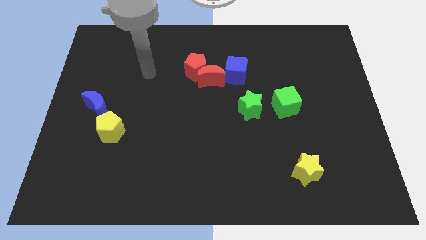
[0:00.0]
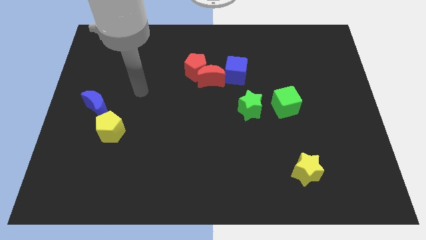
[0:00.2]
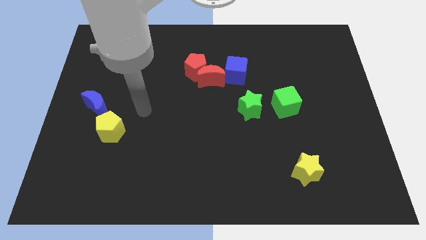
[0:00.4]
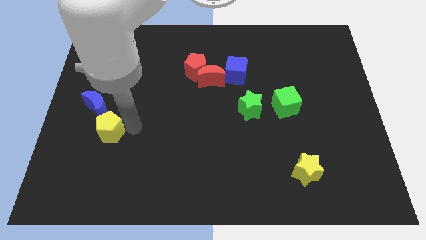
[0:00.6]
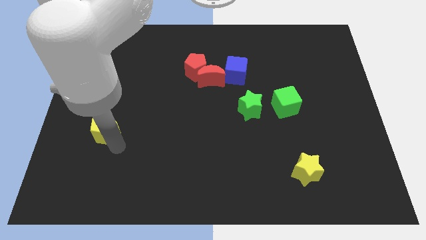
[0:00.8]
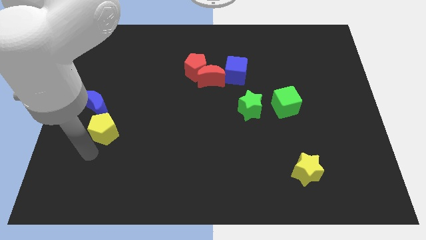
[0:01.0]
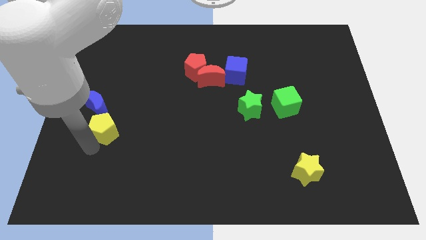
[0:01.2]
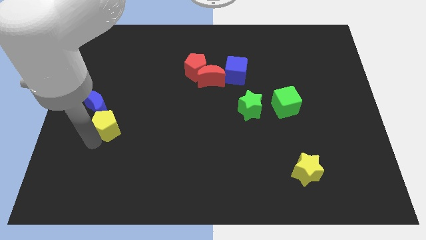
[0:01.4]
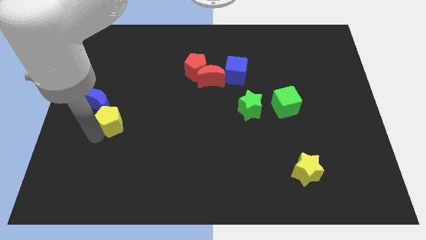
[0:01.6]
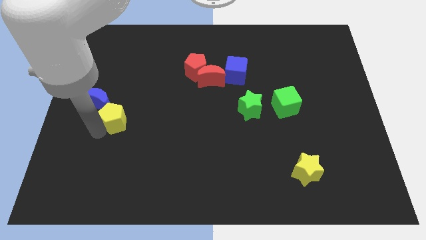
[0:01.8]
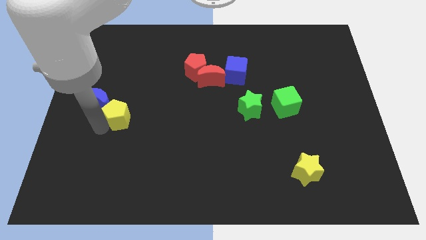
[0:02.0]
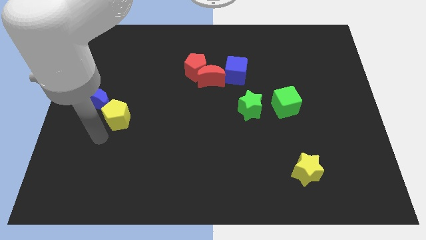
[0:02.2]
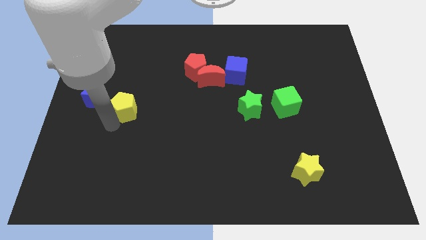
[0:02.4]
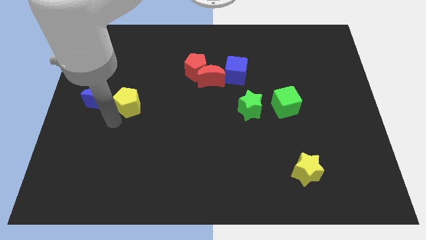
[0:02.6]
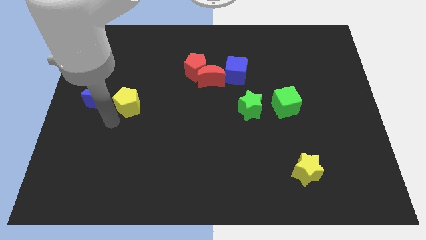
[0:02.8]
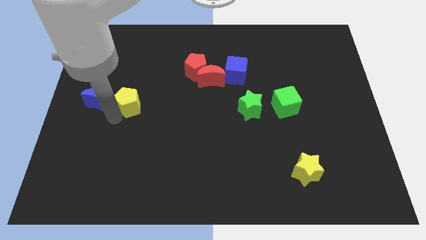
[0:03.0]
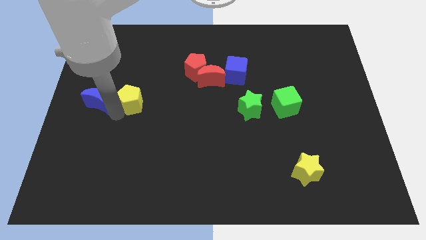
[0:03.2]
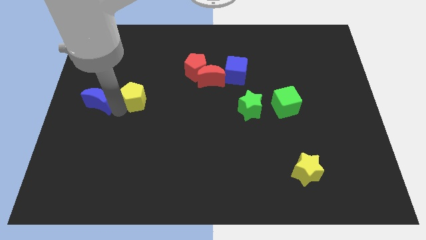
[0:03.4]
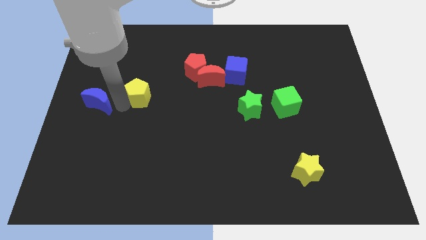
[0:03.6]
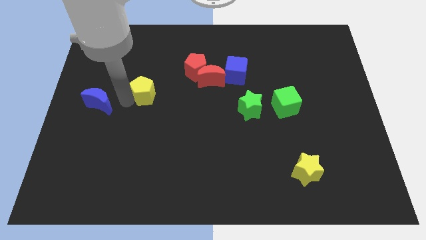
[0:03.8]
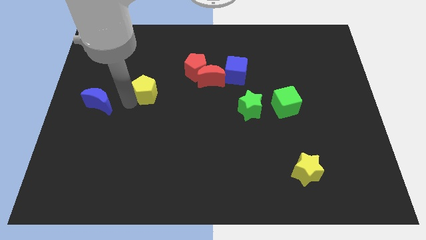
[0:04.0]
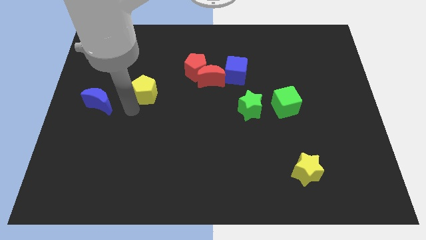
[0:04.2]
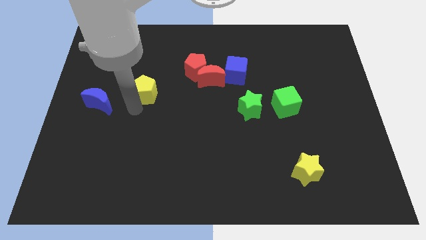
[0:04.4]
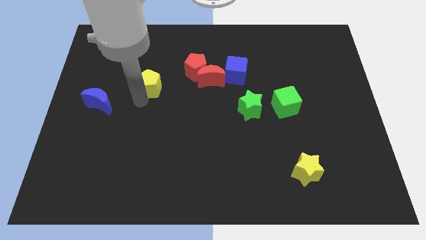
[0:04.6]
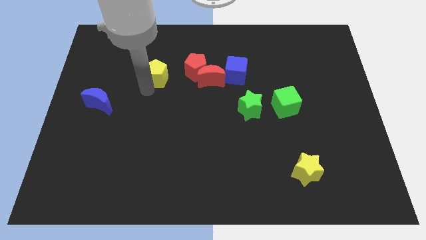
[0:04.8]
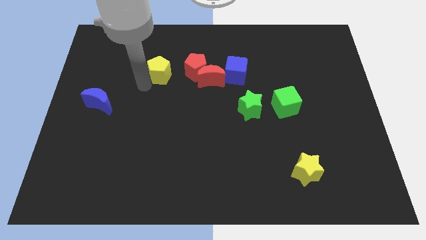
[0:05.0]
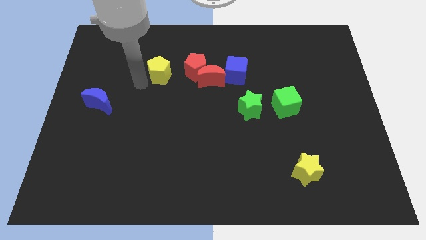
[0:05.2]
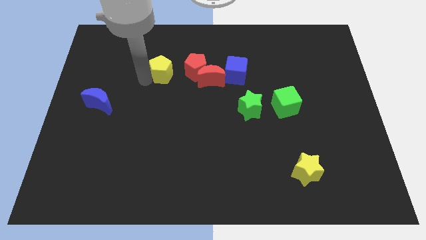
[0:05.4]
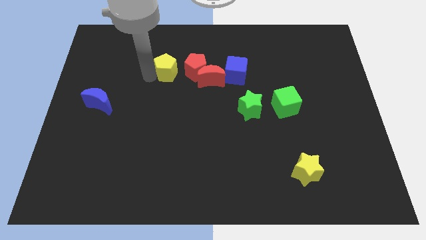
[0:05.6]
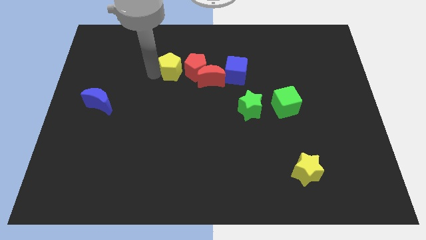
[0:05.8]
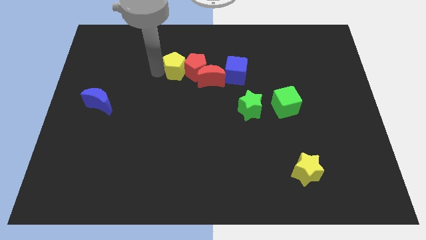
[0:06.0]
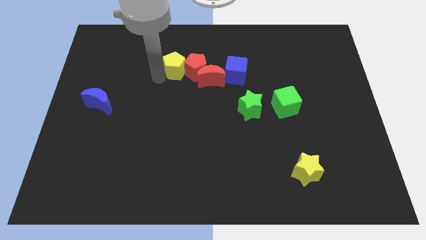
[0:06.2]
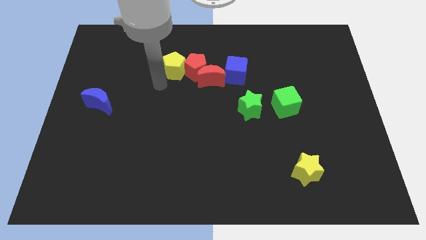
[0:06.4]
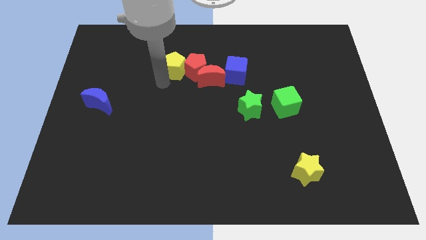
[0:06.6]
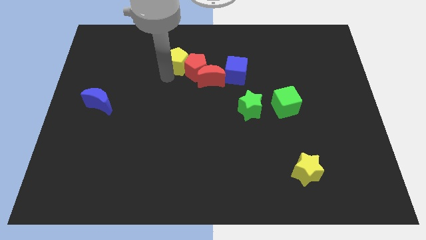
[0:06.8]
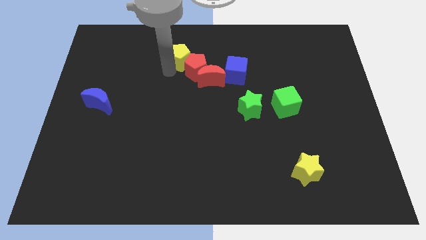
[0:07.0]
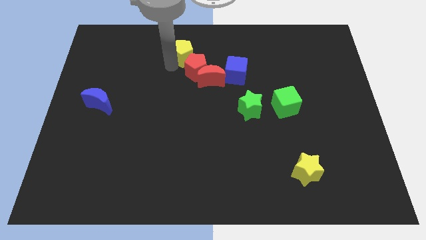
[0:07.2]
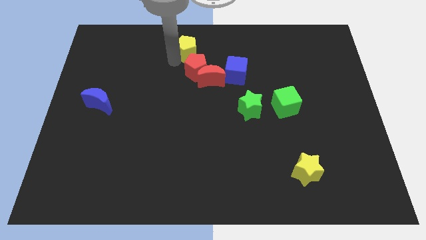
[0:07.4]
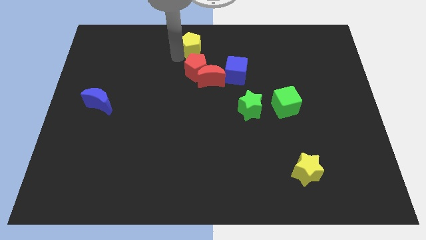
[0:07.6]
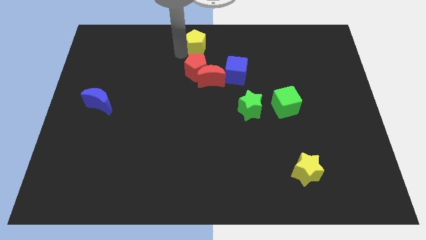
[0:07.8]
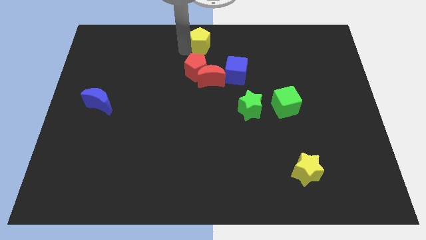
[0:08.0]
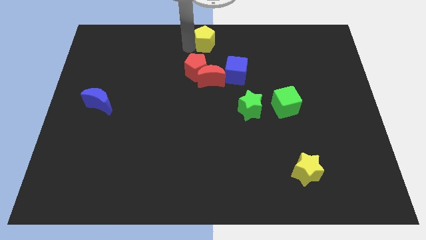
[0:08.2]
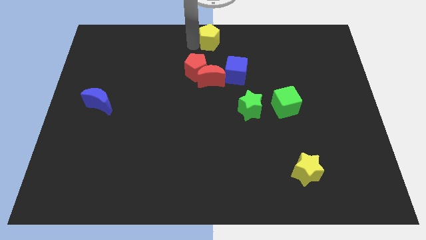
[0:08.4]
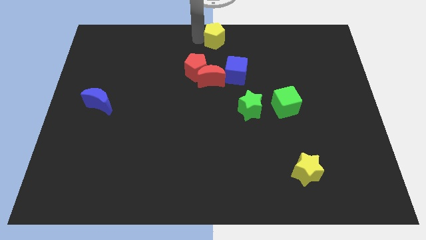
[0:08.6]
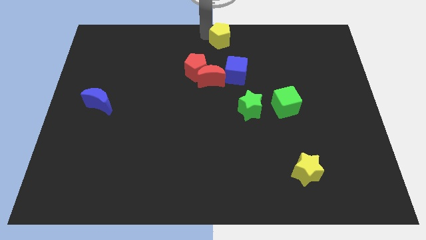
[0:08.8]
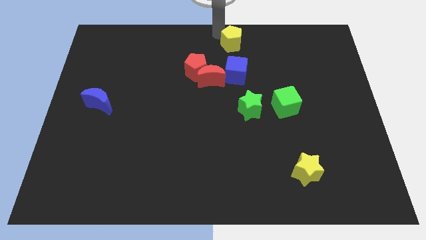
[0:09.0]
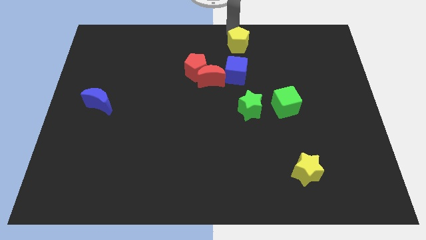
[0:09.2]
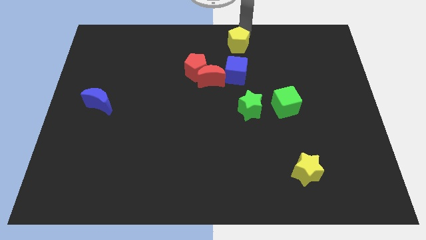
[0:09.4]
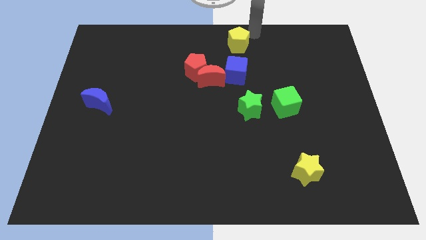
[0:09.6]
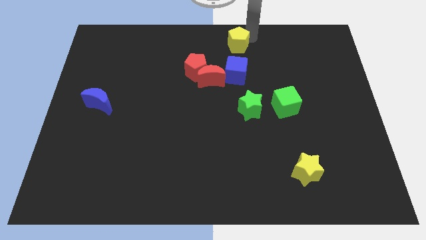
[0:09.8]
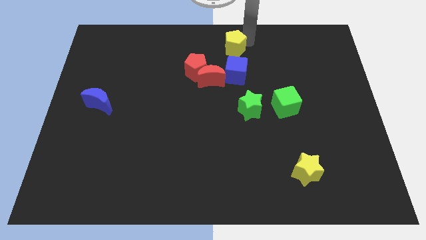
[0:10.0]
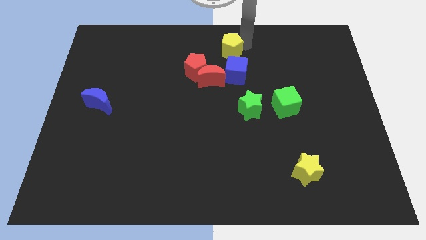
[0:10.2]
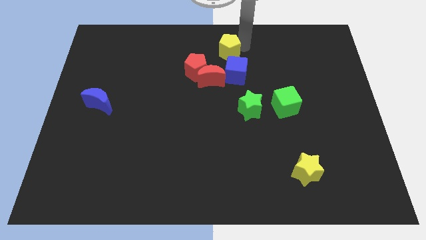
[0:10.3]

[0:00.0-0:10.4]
slide the yellow pentagon to the top left of the blue cube

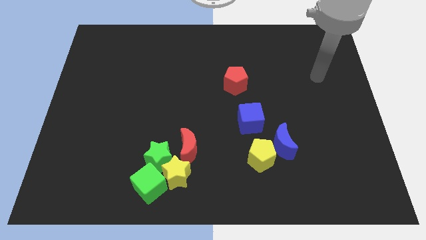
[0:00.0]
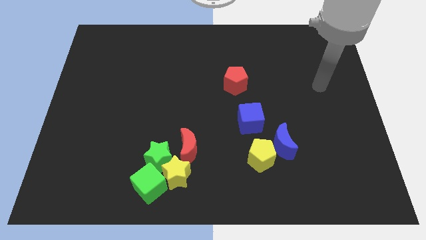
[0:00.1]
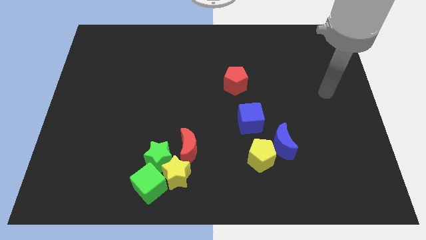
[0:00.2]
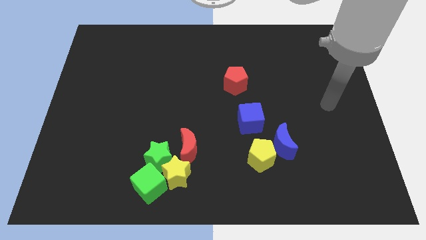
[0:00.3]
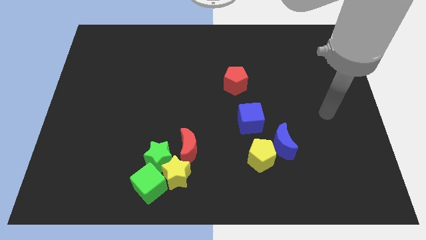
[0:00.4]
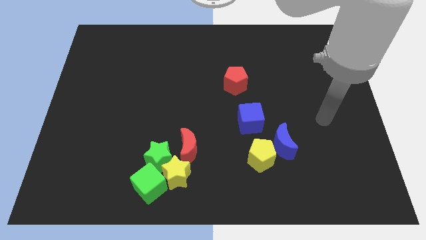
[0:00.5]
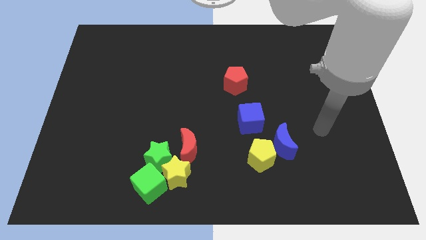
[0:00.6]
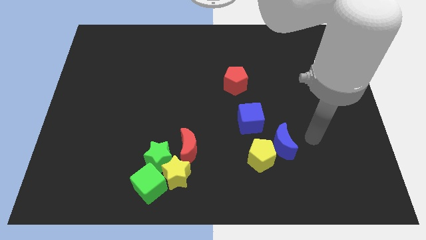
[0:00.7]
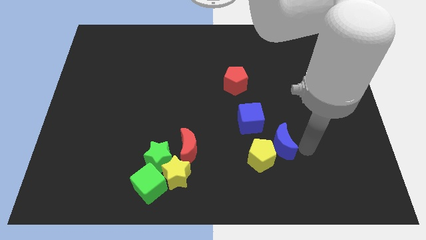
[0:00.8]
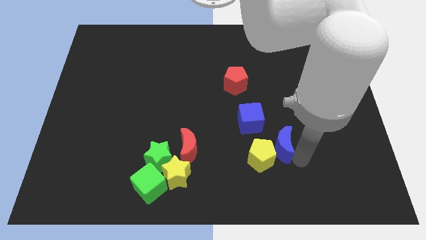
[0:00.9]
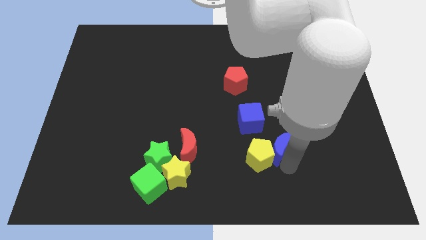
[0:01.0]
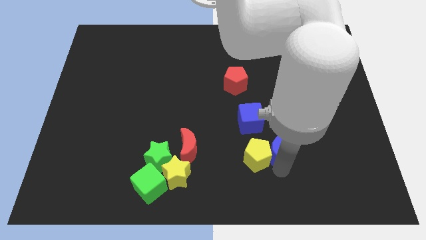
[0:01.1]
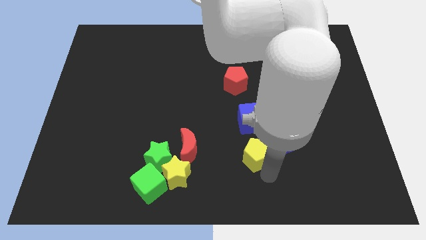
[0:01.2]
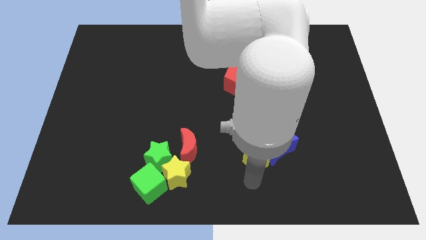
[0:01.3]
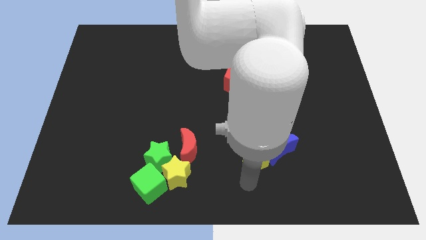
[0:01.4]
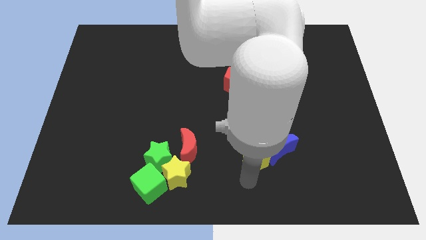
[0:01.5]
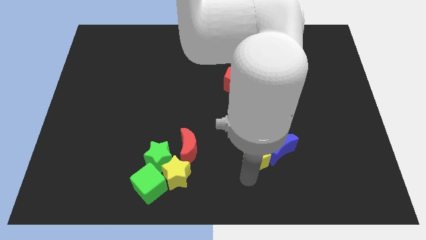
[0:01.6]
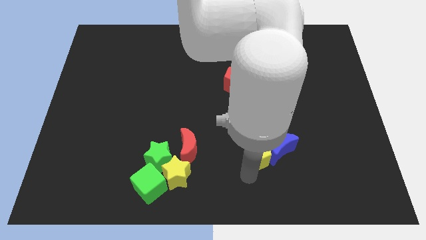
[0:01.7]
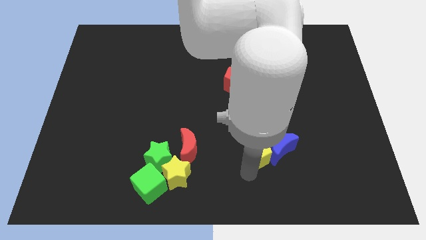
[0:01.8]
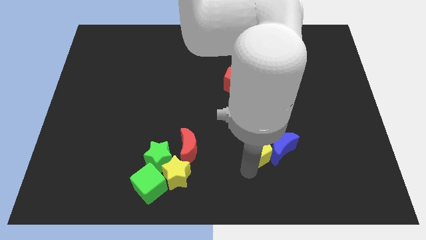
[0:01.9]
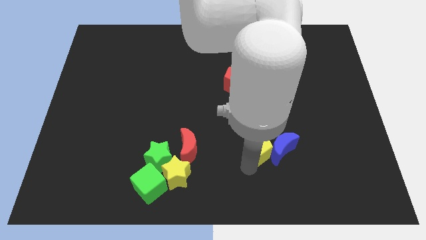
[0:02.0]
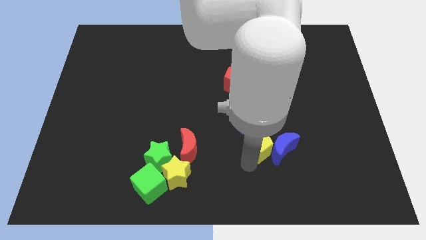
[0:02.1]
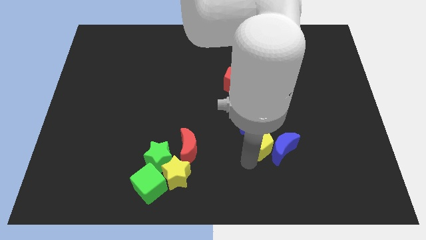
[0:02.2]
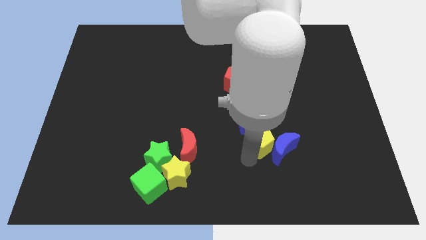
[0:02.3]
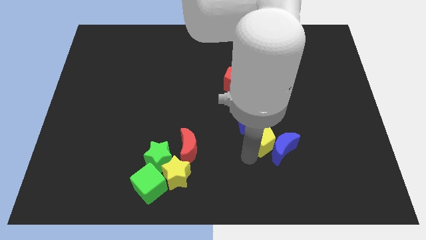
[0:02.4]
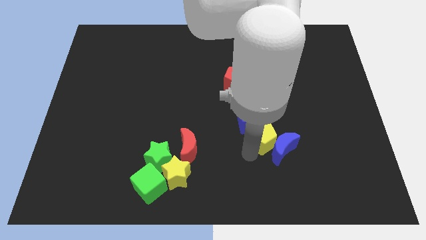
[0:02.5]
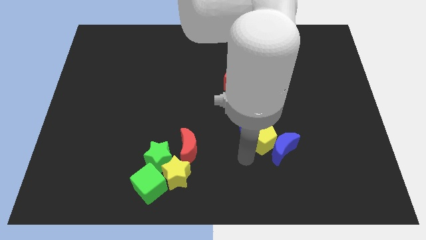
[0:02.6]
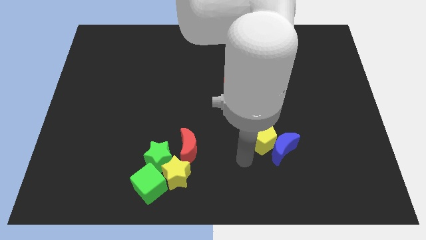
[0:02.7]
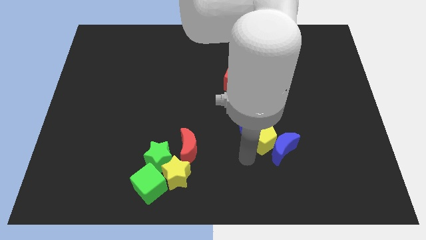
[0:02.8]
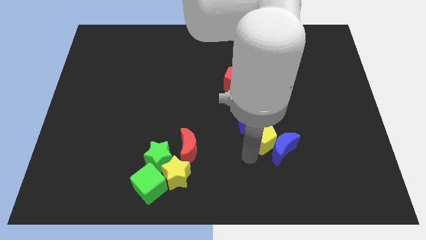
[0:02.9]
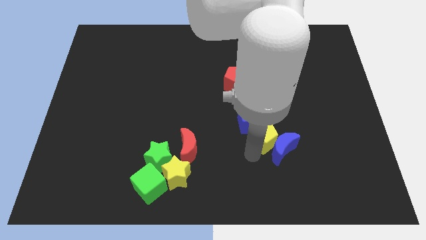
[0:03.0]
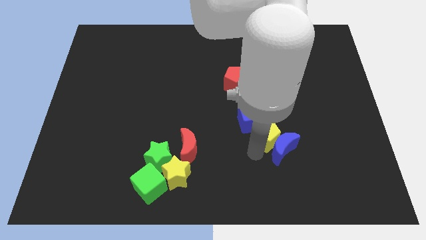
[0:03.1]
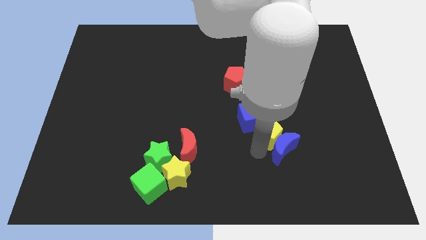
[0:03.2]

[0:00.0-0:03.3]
put the yellow pentagon to the right of the blue cube
